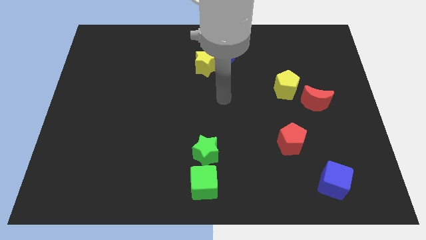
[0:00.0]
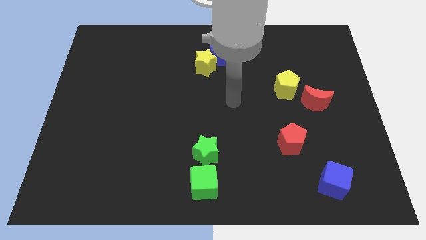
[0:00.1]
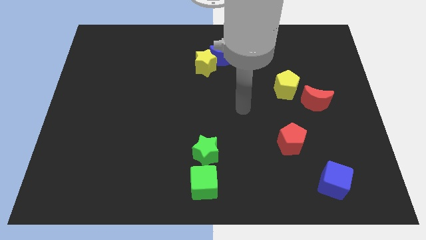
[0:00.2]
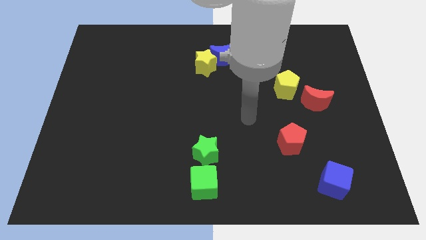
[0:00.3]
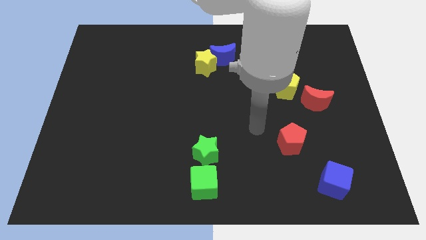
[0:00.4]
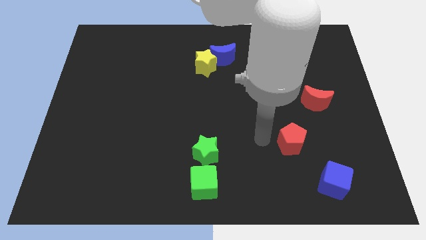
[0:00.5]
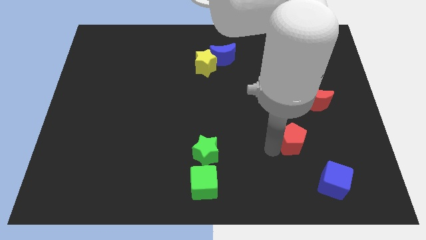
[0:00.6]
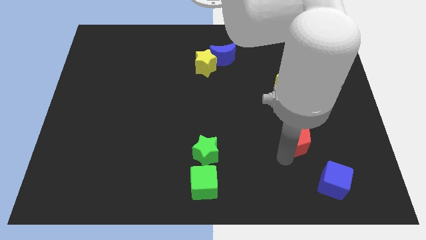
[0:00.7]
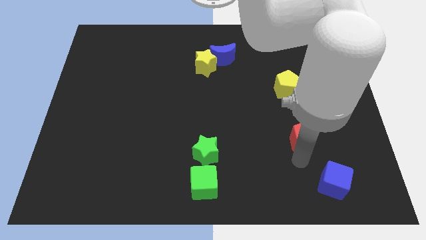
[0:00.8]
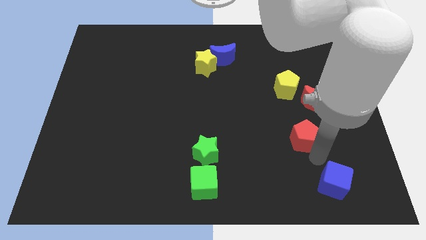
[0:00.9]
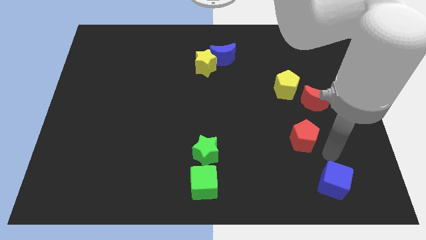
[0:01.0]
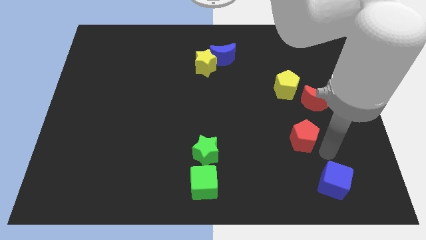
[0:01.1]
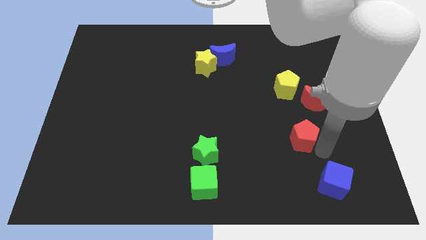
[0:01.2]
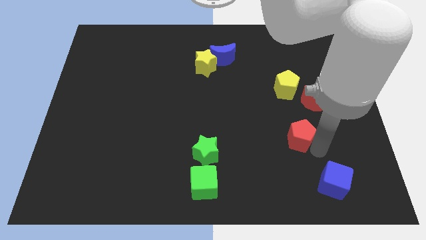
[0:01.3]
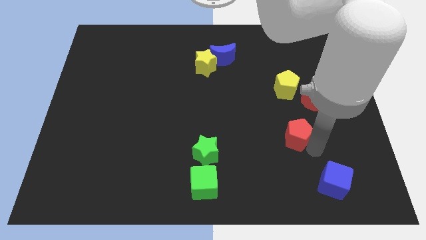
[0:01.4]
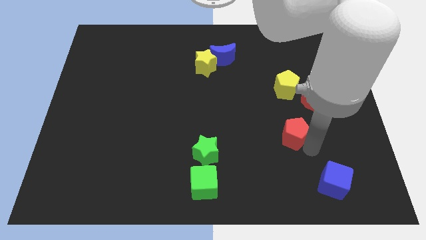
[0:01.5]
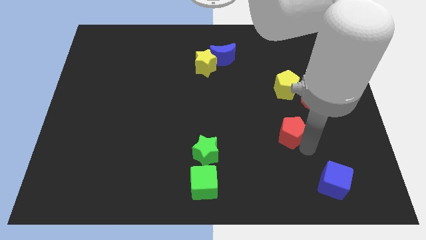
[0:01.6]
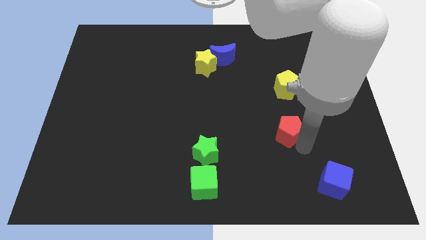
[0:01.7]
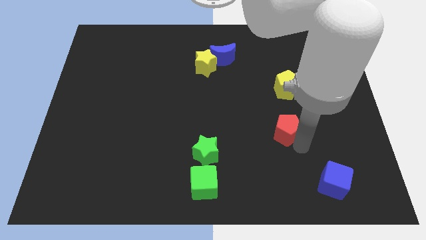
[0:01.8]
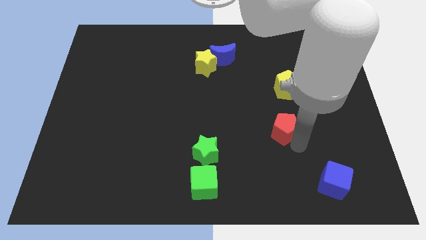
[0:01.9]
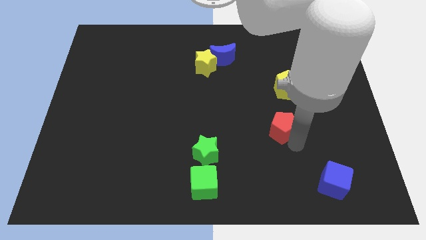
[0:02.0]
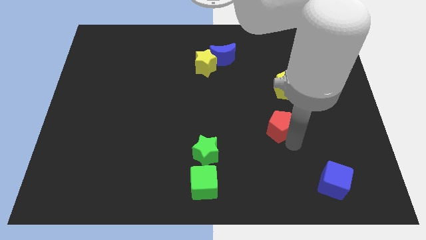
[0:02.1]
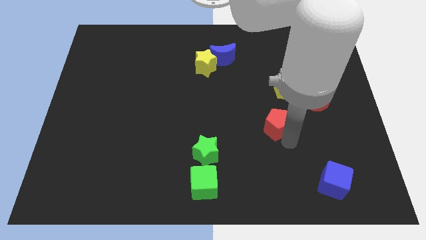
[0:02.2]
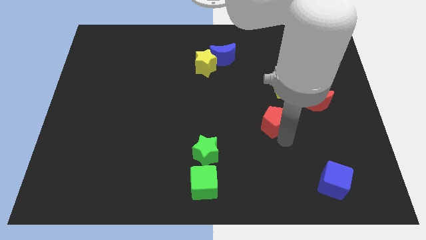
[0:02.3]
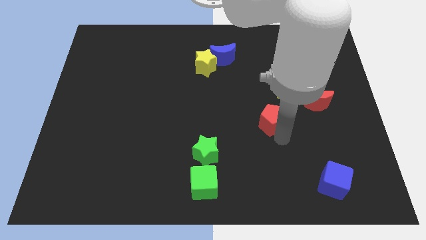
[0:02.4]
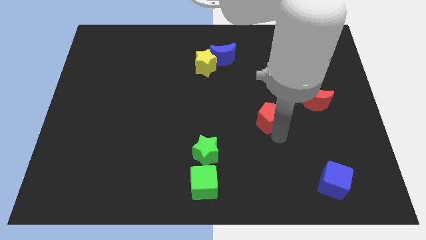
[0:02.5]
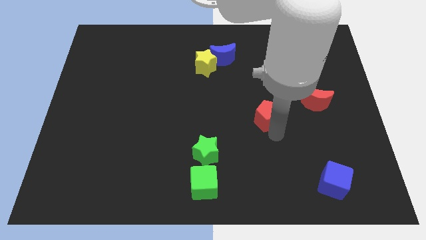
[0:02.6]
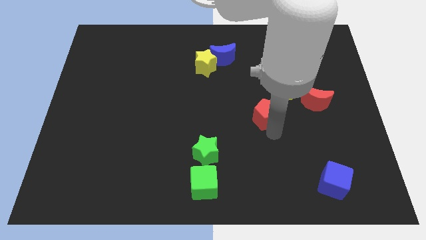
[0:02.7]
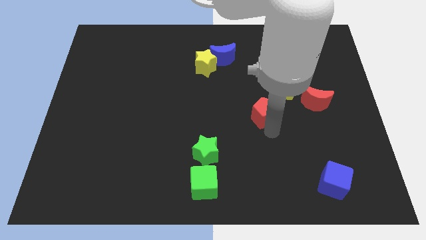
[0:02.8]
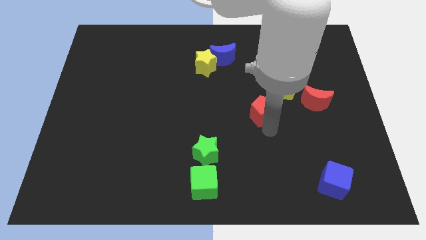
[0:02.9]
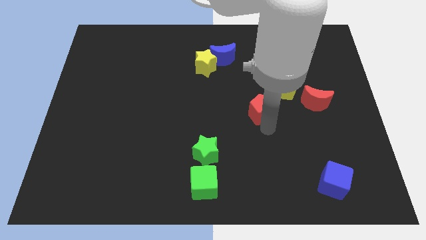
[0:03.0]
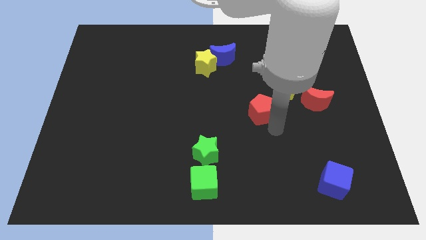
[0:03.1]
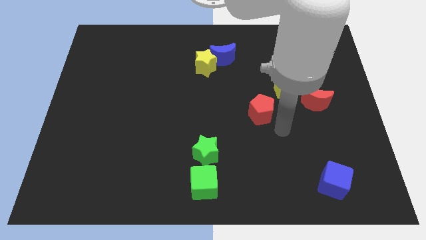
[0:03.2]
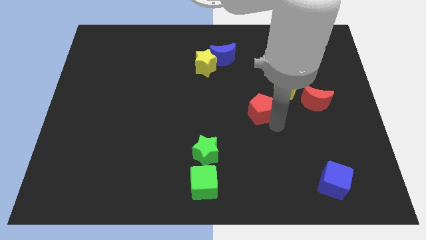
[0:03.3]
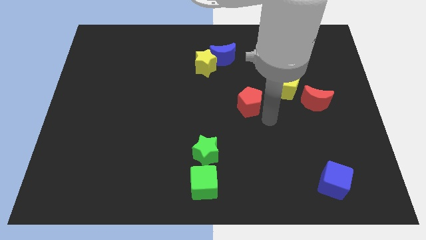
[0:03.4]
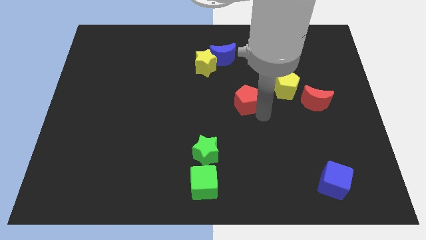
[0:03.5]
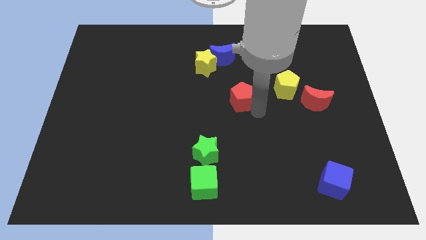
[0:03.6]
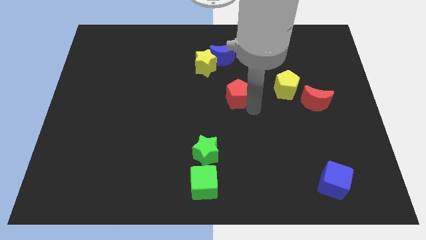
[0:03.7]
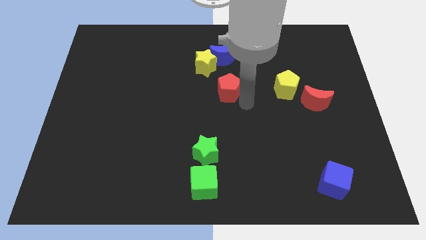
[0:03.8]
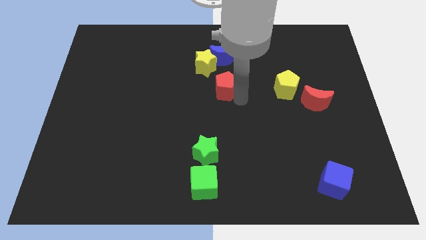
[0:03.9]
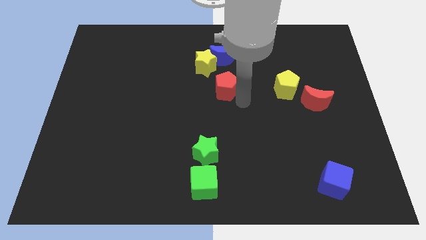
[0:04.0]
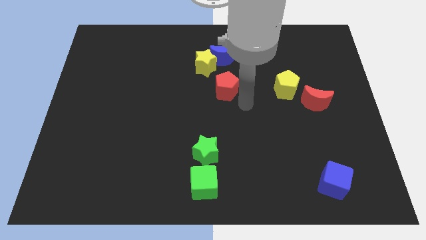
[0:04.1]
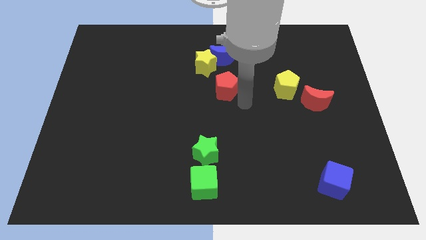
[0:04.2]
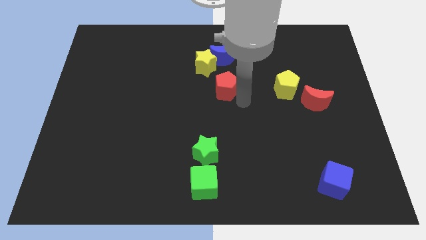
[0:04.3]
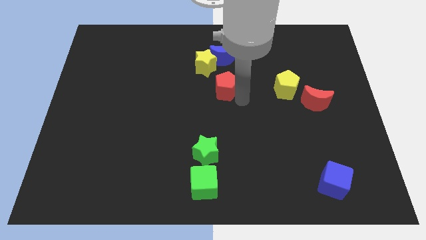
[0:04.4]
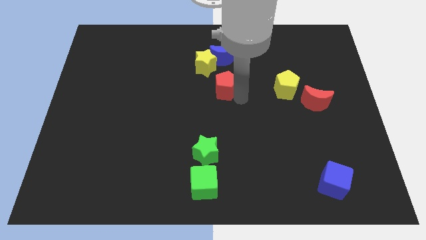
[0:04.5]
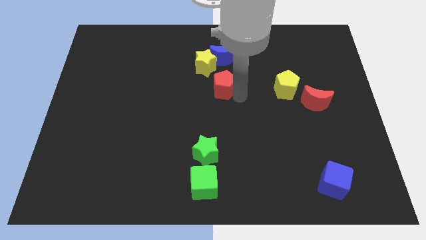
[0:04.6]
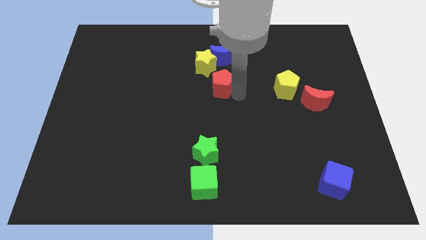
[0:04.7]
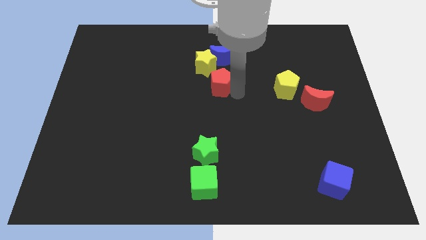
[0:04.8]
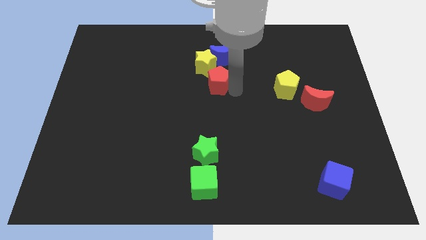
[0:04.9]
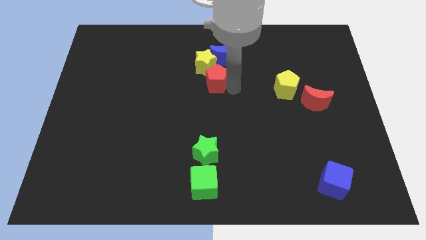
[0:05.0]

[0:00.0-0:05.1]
move the red pentagon next to the yellow star

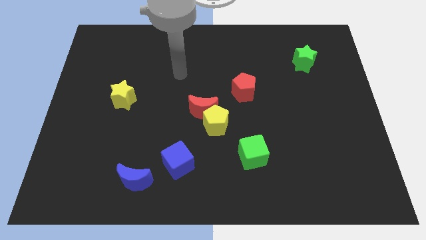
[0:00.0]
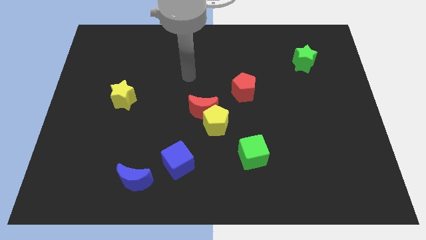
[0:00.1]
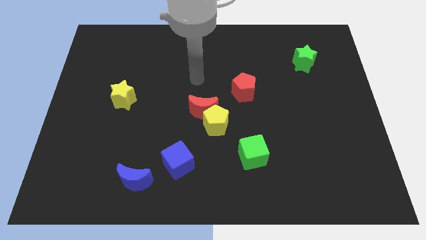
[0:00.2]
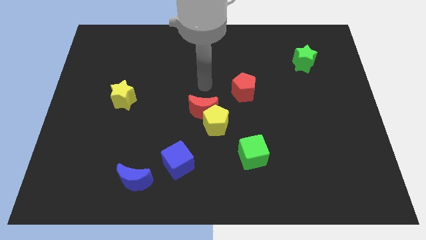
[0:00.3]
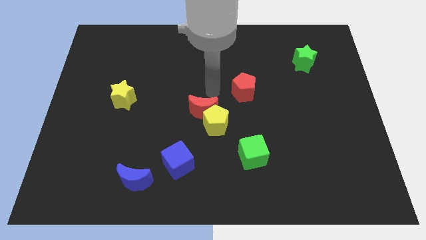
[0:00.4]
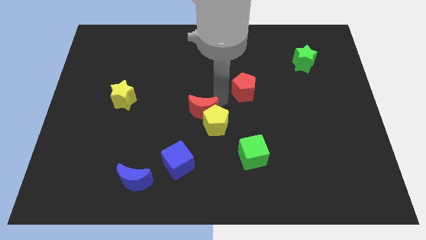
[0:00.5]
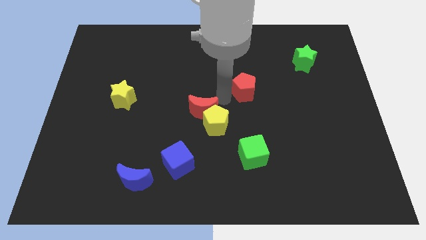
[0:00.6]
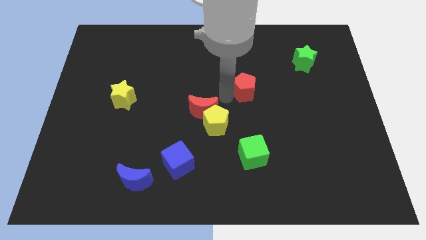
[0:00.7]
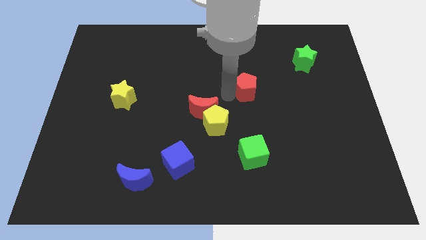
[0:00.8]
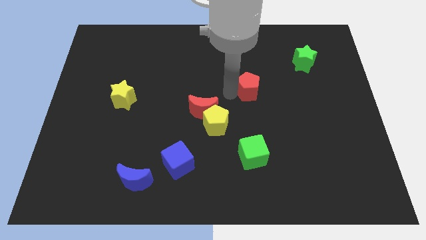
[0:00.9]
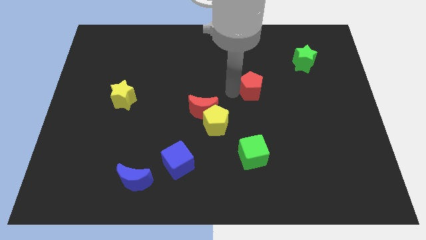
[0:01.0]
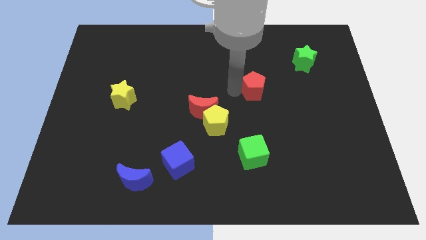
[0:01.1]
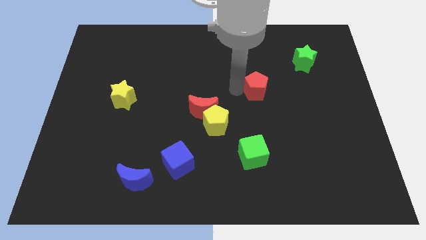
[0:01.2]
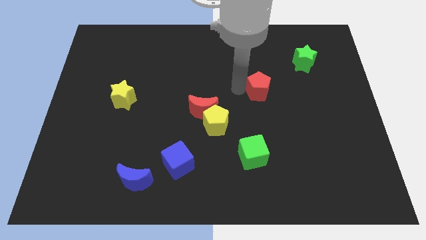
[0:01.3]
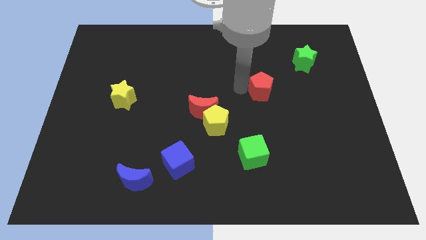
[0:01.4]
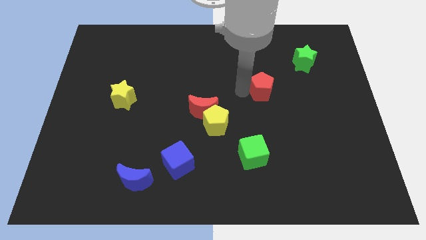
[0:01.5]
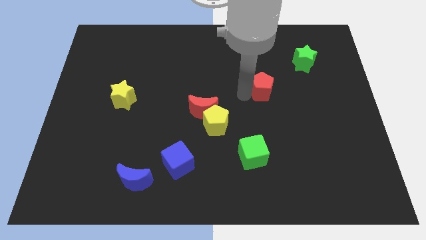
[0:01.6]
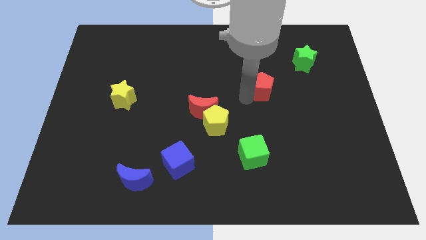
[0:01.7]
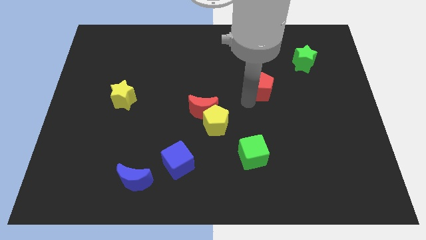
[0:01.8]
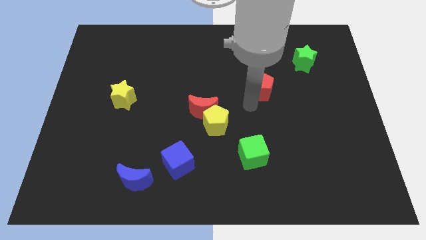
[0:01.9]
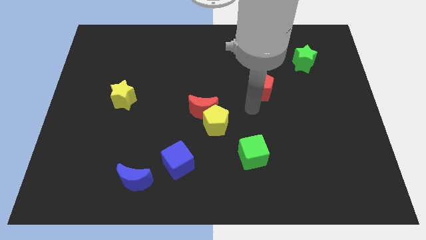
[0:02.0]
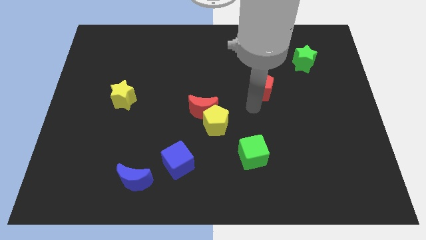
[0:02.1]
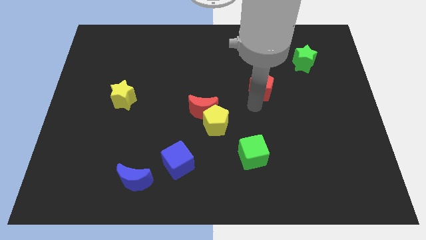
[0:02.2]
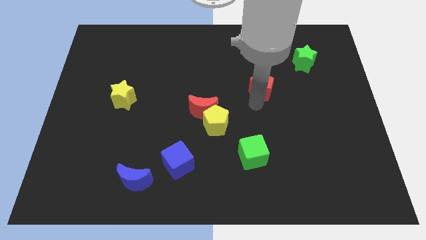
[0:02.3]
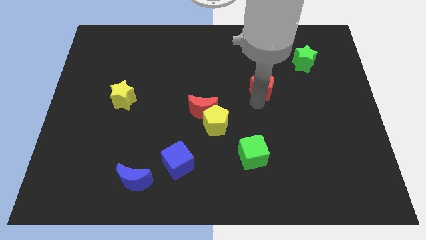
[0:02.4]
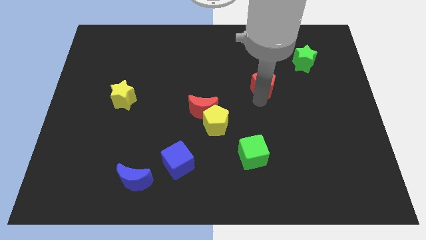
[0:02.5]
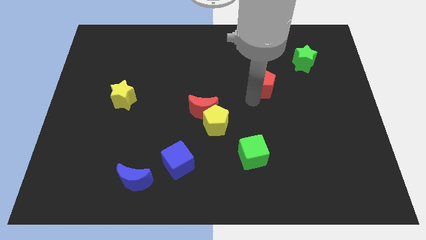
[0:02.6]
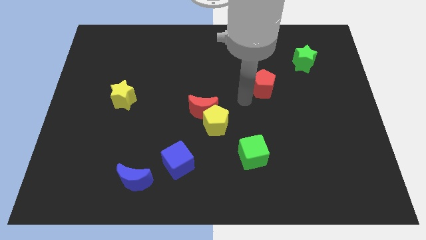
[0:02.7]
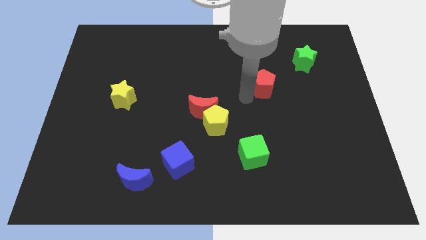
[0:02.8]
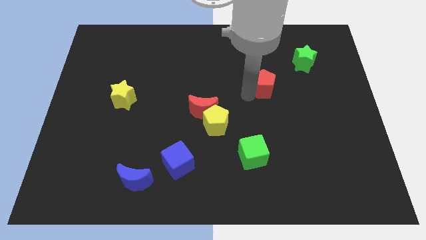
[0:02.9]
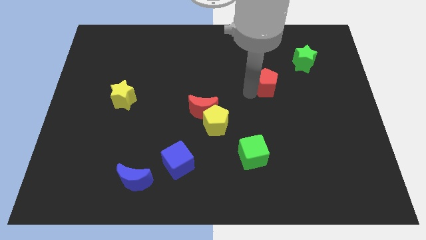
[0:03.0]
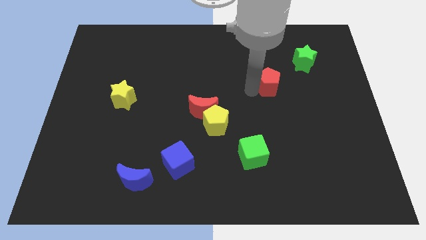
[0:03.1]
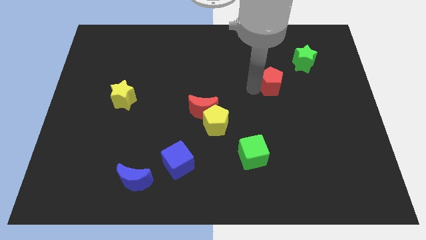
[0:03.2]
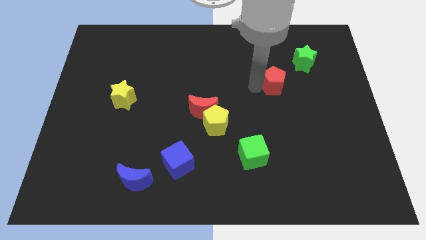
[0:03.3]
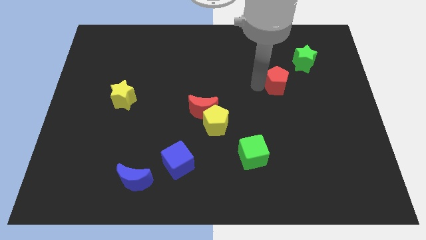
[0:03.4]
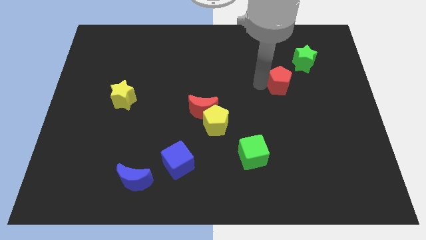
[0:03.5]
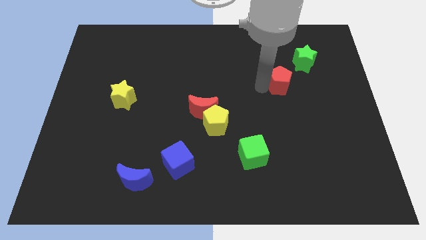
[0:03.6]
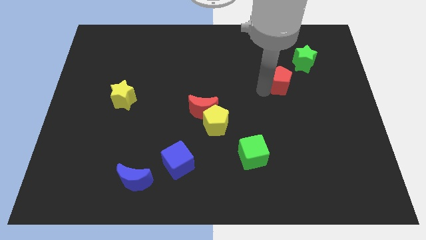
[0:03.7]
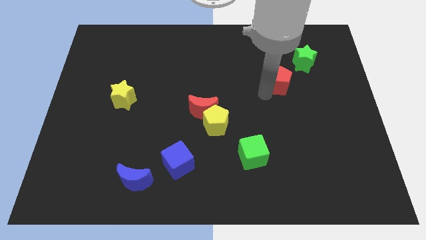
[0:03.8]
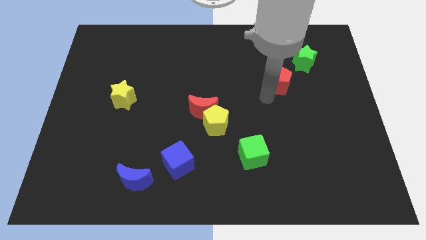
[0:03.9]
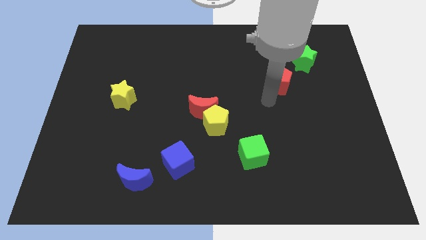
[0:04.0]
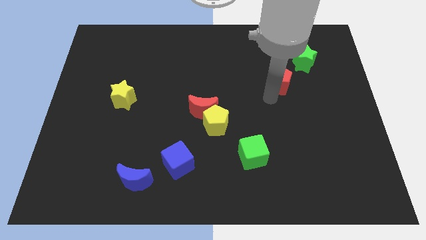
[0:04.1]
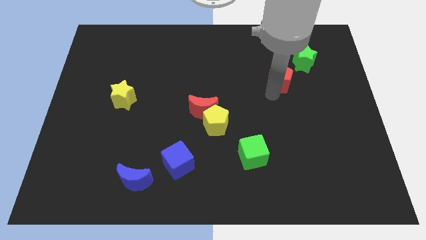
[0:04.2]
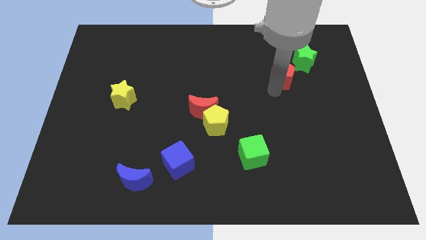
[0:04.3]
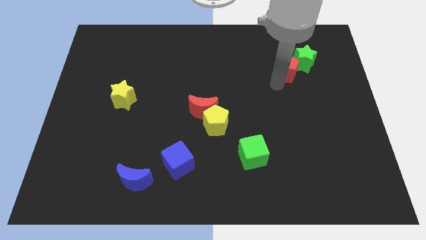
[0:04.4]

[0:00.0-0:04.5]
slide the red pentagon towards the green star
